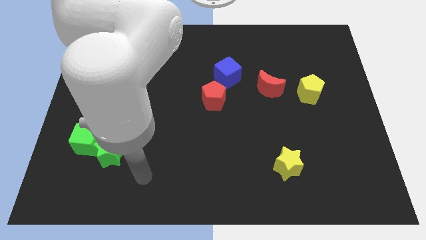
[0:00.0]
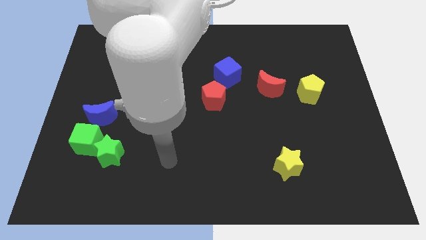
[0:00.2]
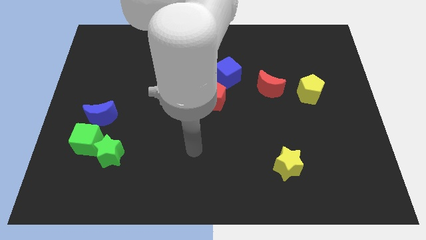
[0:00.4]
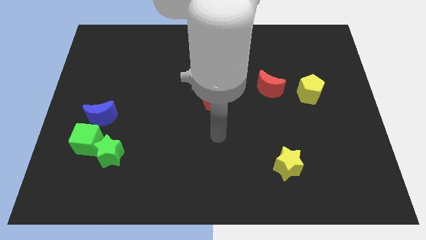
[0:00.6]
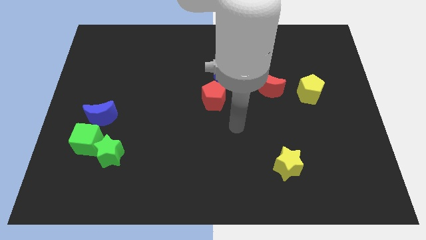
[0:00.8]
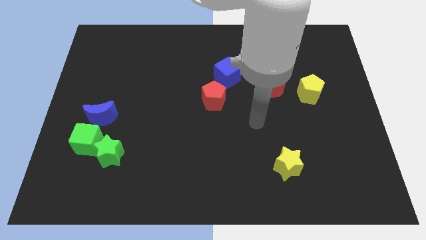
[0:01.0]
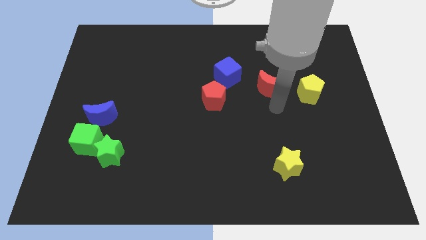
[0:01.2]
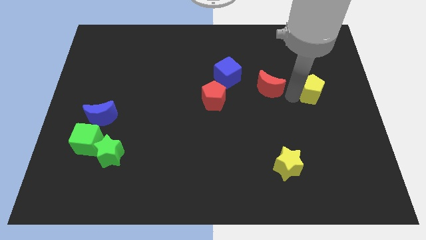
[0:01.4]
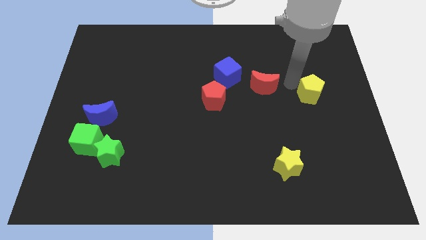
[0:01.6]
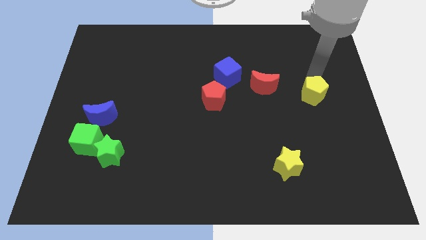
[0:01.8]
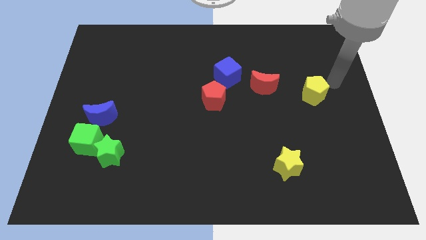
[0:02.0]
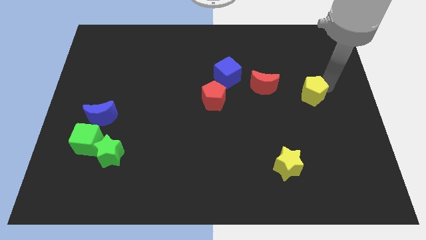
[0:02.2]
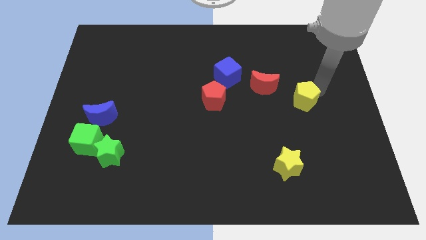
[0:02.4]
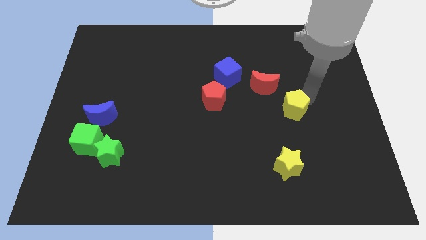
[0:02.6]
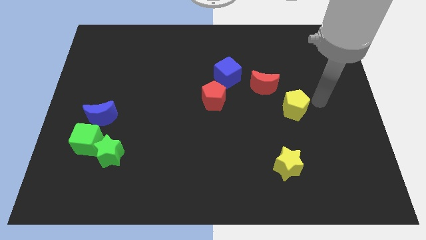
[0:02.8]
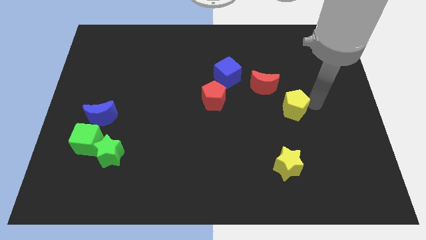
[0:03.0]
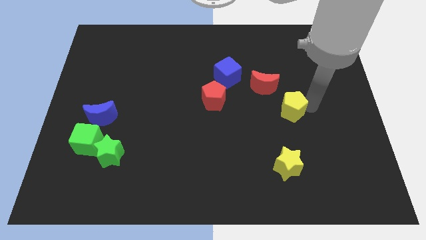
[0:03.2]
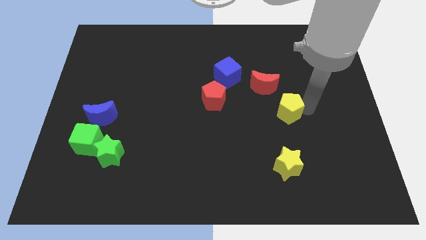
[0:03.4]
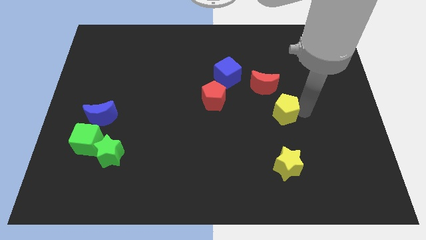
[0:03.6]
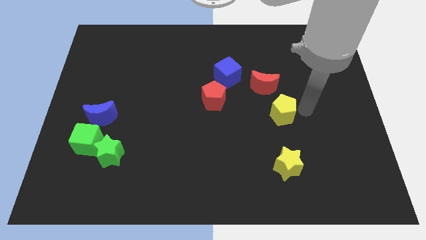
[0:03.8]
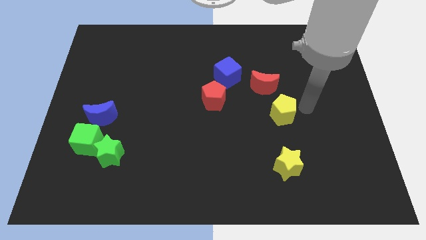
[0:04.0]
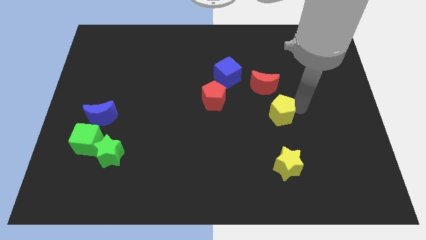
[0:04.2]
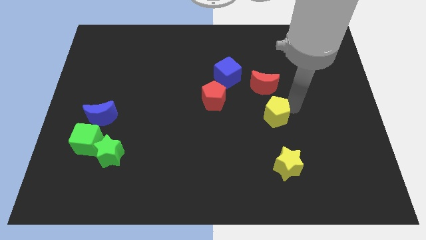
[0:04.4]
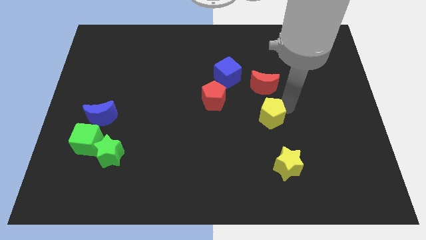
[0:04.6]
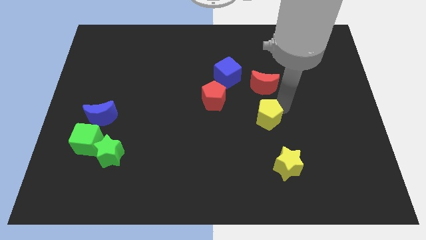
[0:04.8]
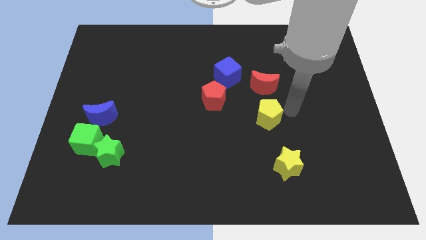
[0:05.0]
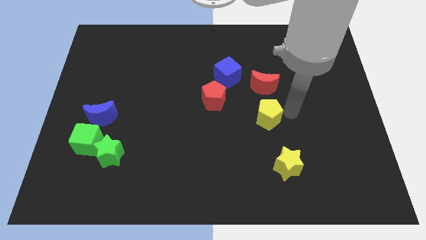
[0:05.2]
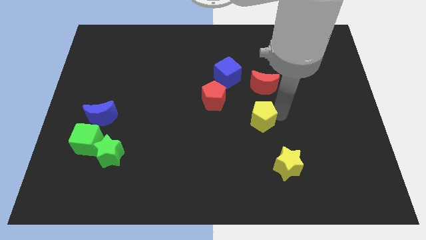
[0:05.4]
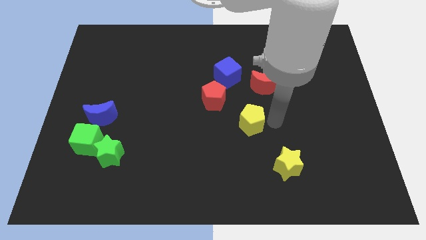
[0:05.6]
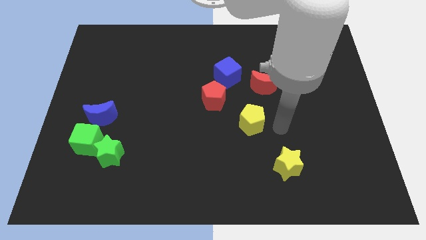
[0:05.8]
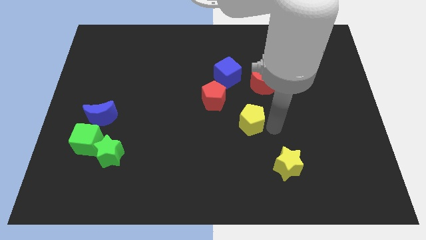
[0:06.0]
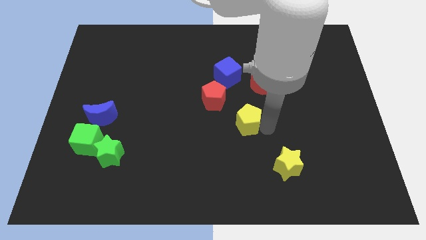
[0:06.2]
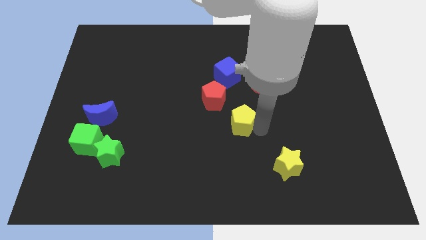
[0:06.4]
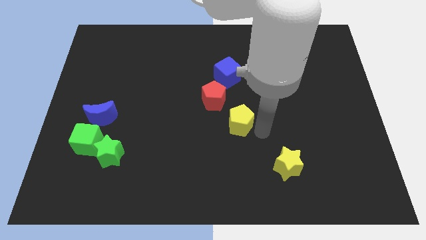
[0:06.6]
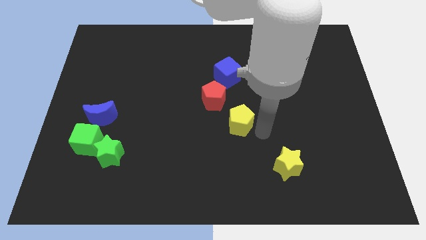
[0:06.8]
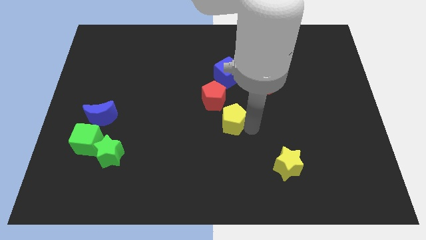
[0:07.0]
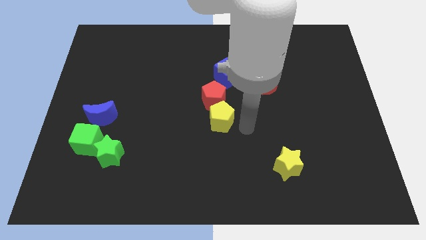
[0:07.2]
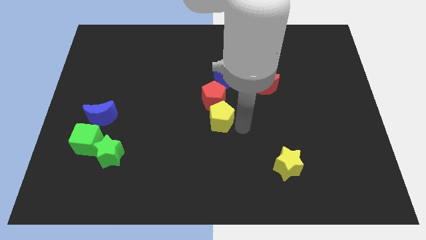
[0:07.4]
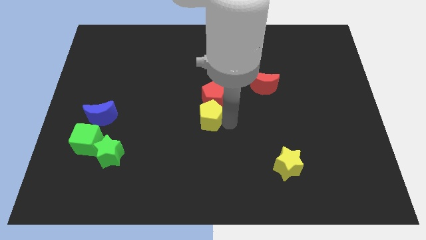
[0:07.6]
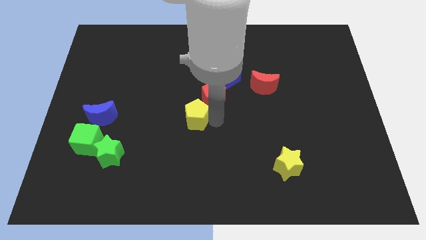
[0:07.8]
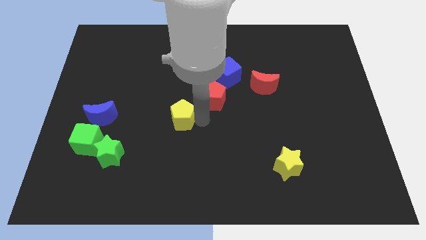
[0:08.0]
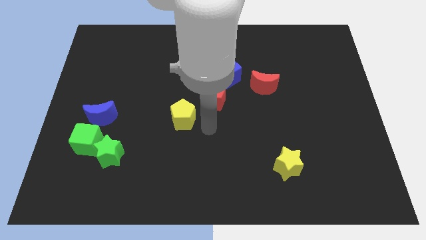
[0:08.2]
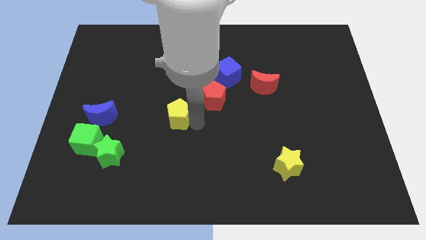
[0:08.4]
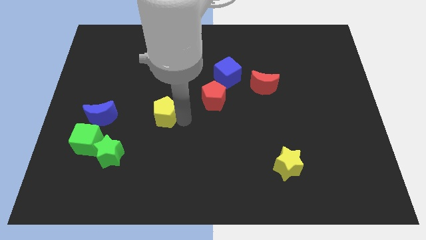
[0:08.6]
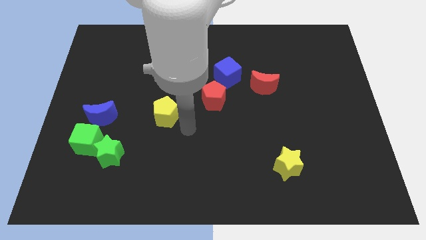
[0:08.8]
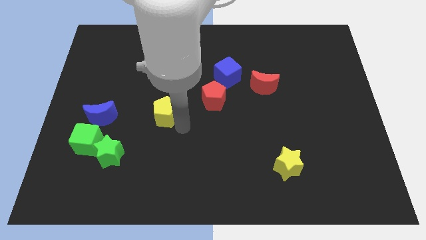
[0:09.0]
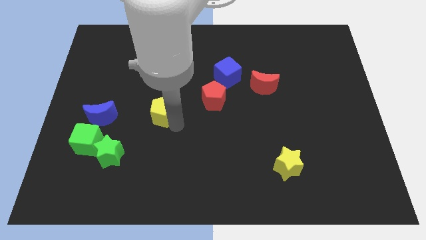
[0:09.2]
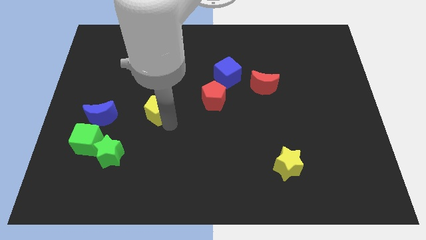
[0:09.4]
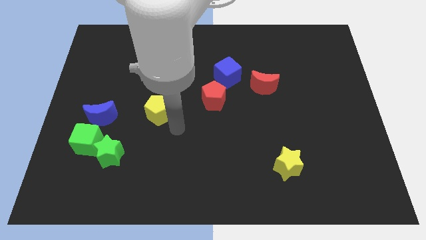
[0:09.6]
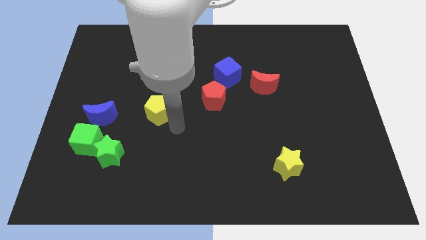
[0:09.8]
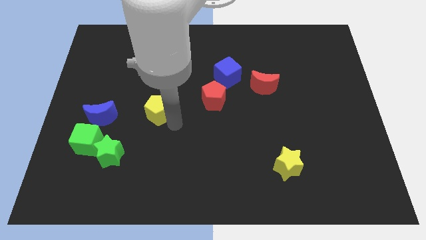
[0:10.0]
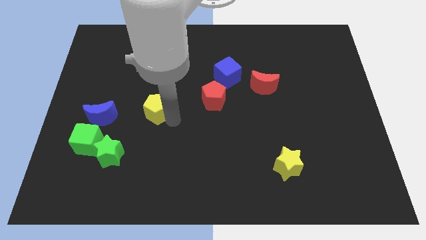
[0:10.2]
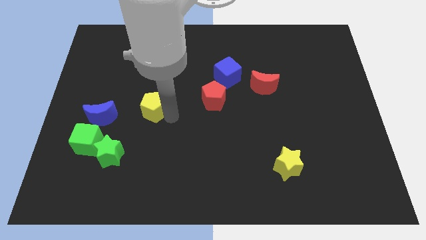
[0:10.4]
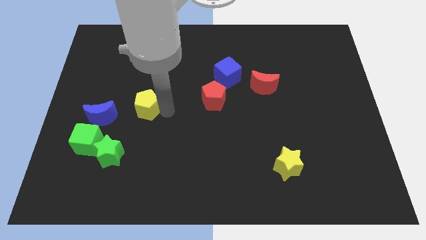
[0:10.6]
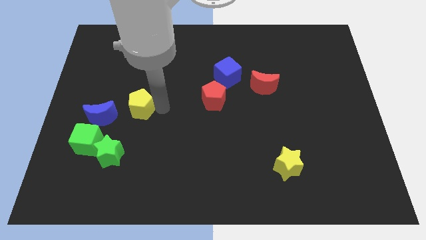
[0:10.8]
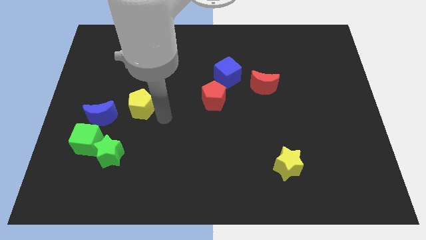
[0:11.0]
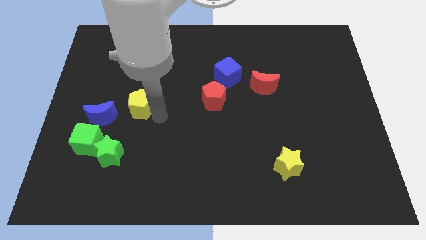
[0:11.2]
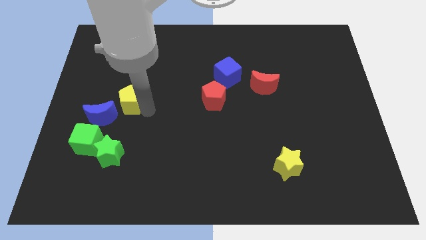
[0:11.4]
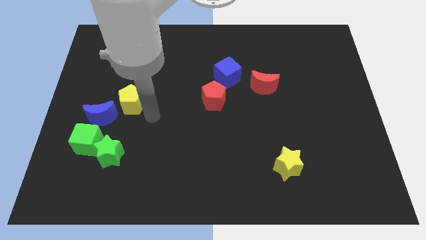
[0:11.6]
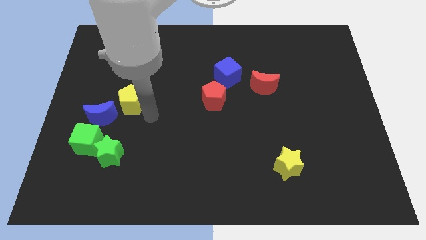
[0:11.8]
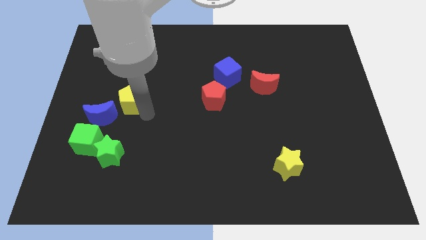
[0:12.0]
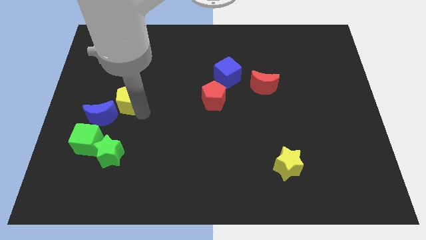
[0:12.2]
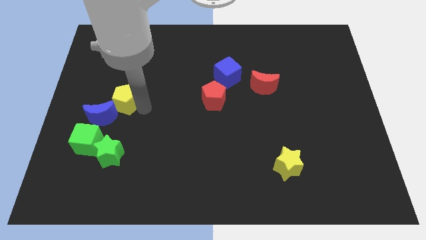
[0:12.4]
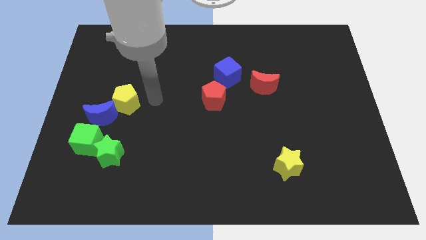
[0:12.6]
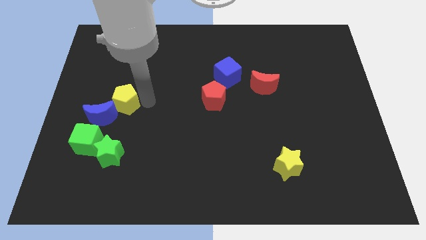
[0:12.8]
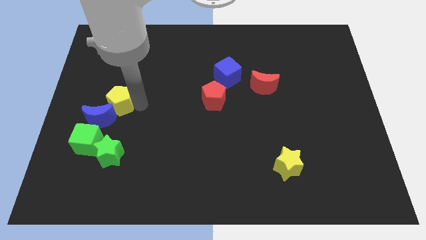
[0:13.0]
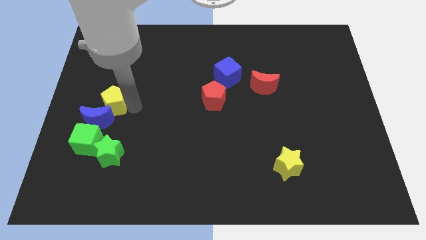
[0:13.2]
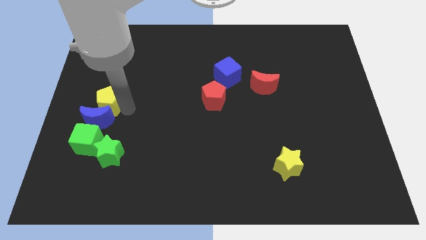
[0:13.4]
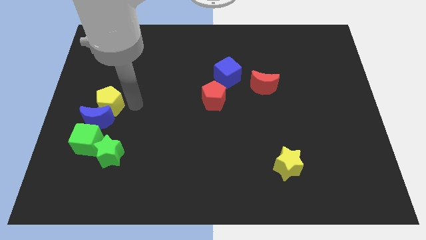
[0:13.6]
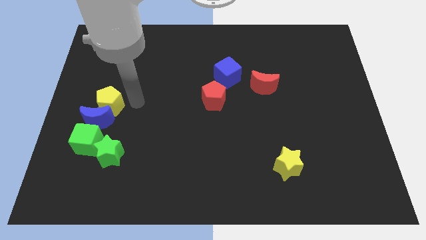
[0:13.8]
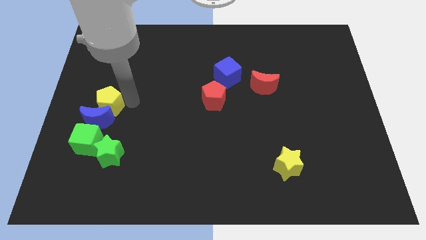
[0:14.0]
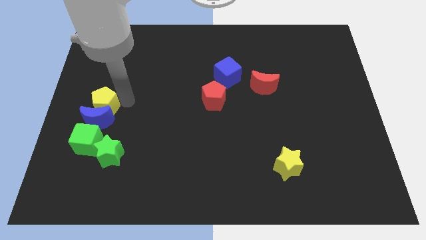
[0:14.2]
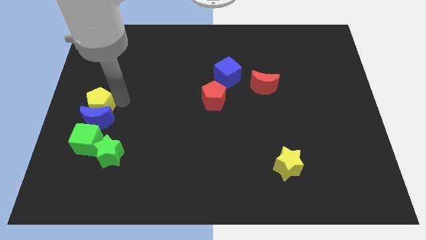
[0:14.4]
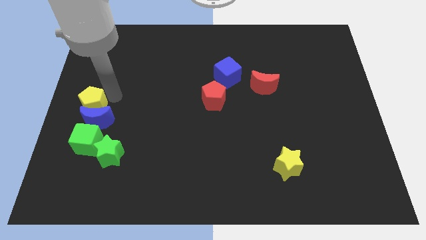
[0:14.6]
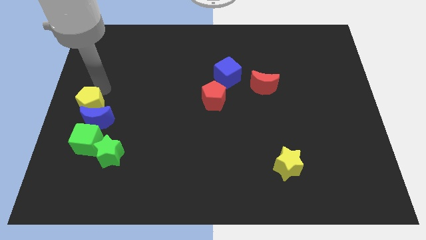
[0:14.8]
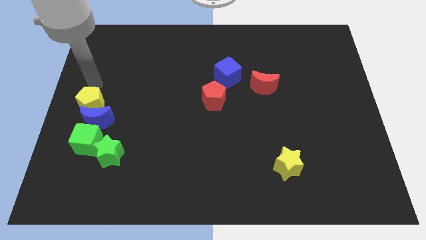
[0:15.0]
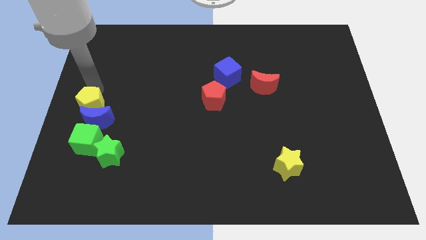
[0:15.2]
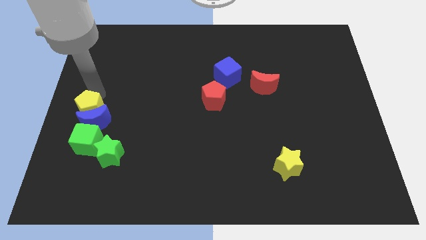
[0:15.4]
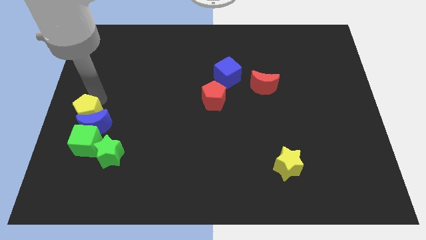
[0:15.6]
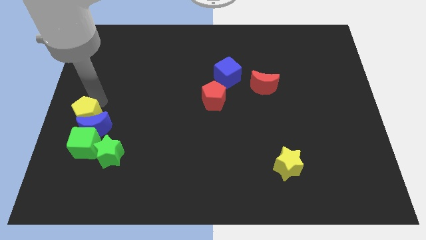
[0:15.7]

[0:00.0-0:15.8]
push the yellow pentagon to the top left side of the green star

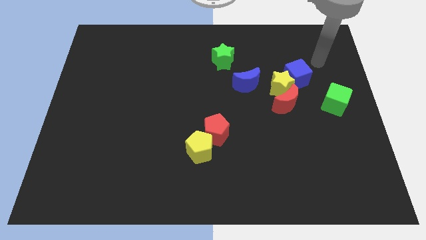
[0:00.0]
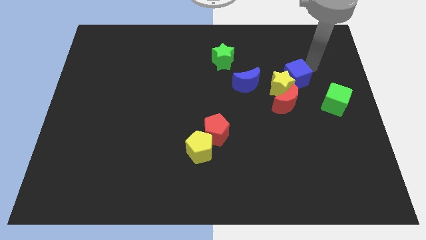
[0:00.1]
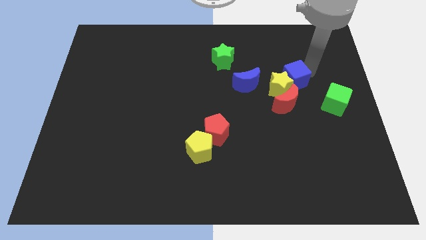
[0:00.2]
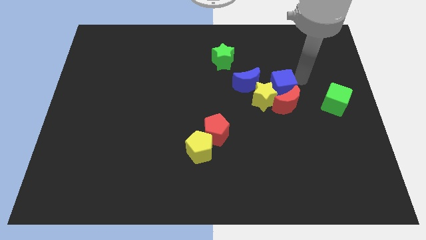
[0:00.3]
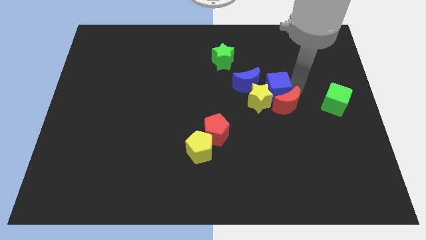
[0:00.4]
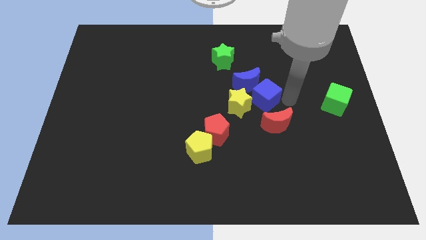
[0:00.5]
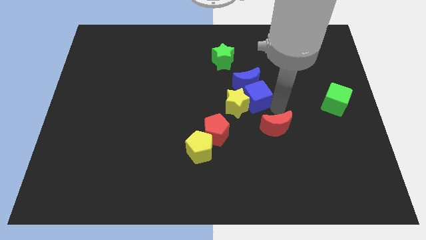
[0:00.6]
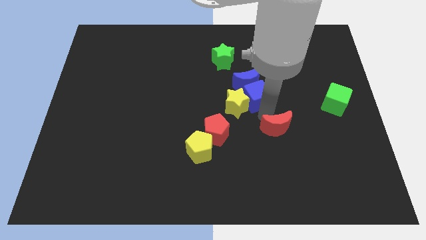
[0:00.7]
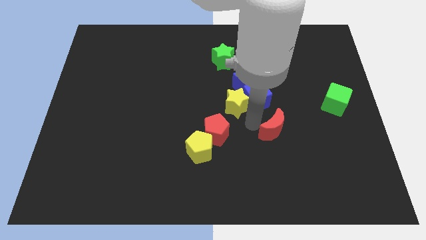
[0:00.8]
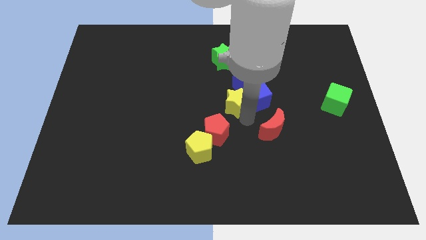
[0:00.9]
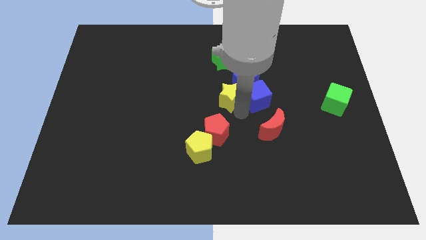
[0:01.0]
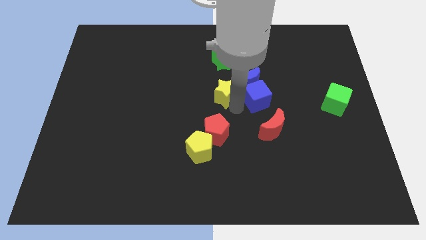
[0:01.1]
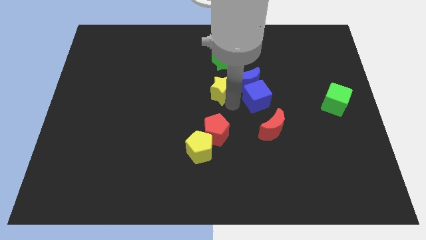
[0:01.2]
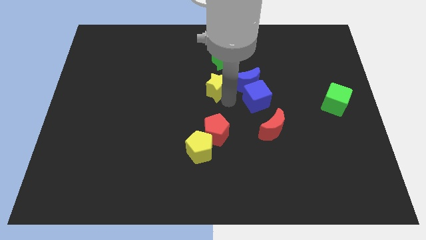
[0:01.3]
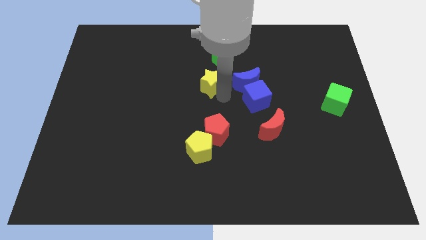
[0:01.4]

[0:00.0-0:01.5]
put the yellow star to the bottom left of the green star
